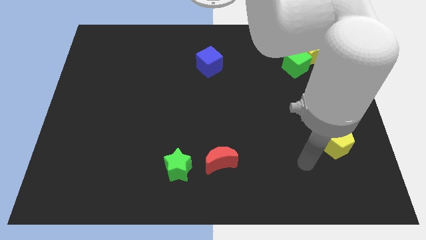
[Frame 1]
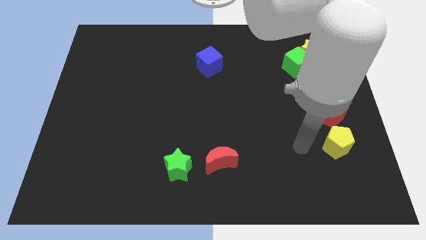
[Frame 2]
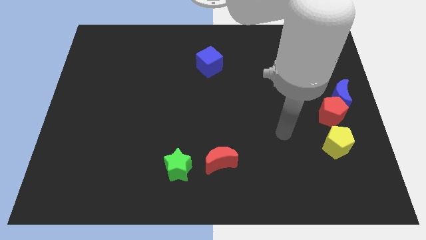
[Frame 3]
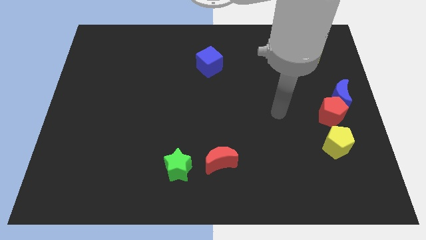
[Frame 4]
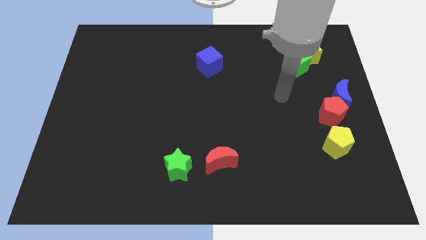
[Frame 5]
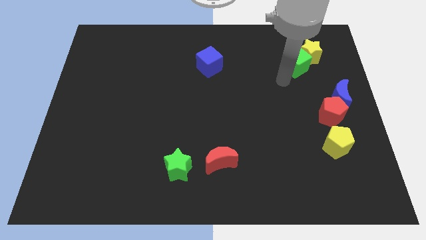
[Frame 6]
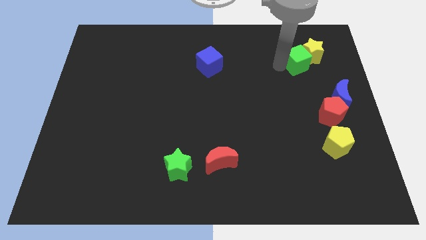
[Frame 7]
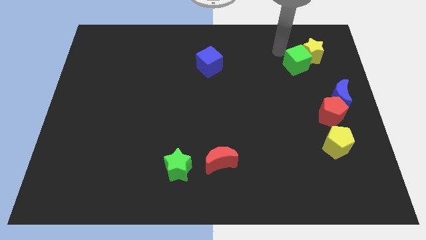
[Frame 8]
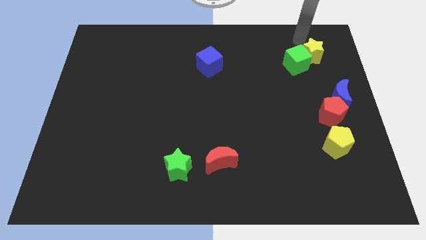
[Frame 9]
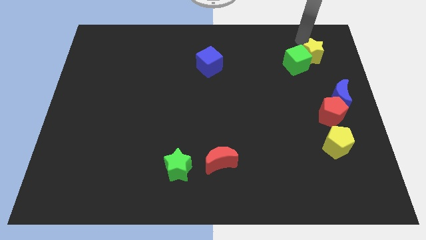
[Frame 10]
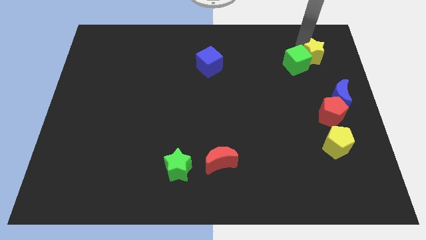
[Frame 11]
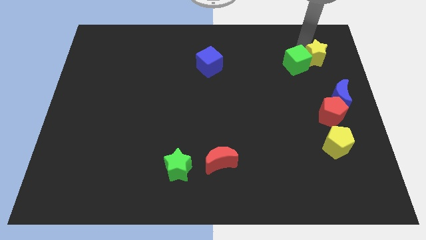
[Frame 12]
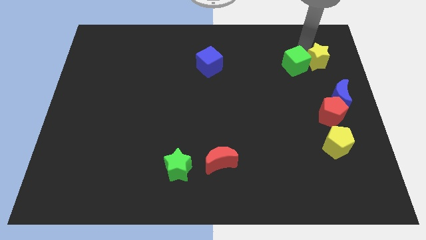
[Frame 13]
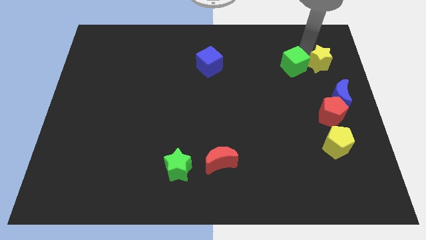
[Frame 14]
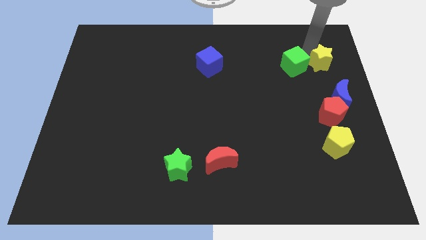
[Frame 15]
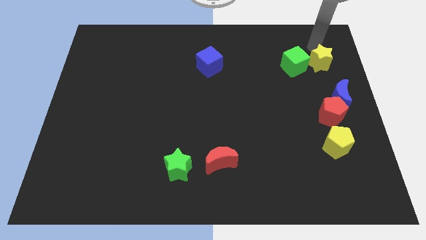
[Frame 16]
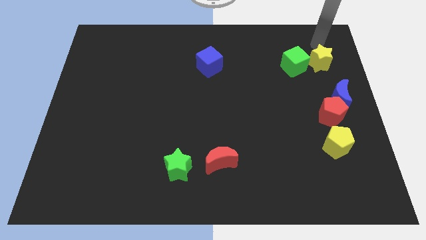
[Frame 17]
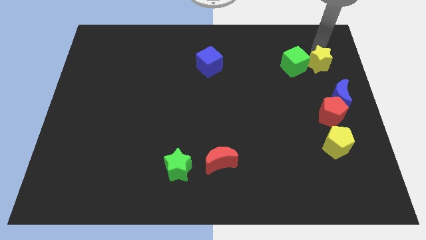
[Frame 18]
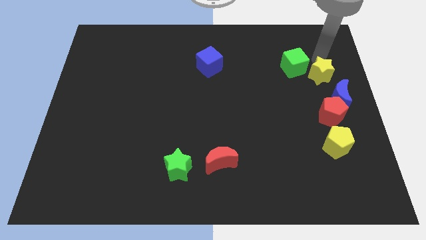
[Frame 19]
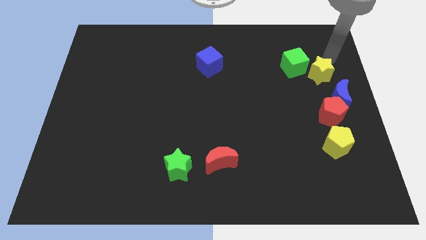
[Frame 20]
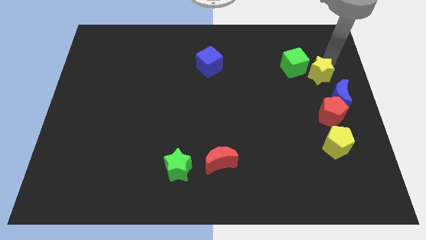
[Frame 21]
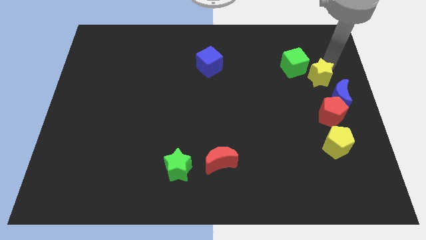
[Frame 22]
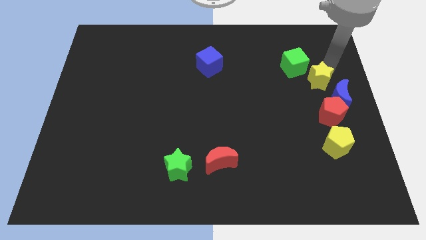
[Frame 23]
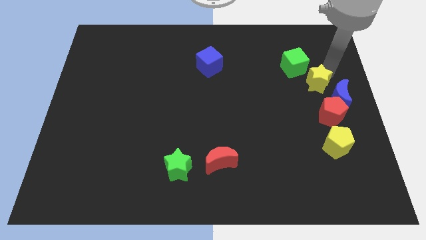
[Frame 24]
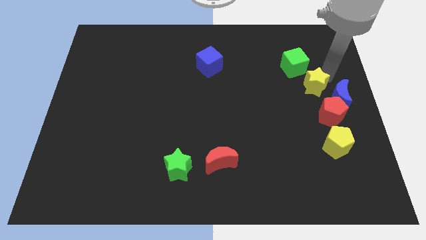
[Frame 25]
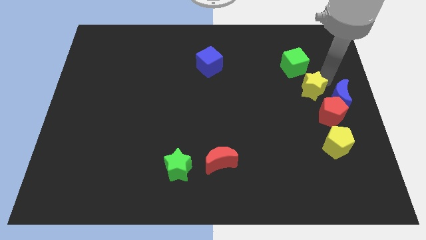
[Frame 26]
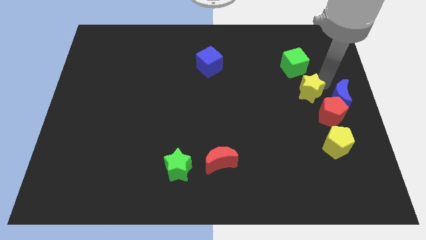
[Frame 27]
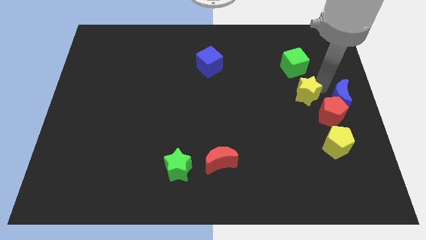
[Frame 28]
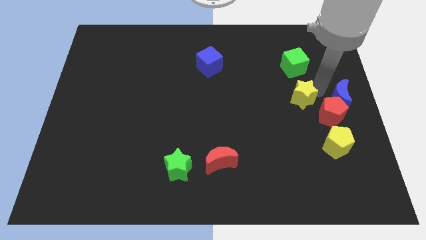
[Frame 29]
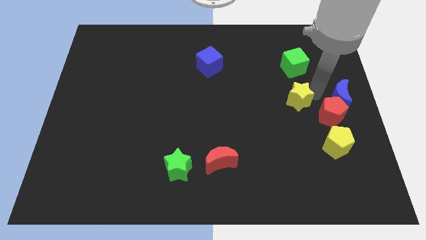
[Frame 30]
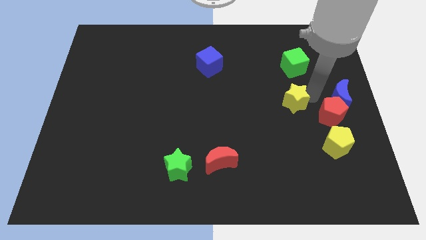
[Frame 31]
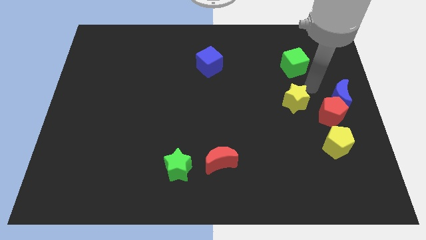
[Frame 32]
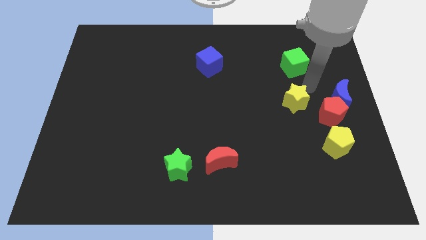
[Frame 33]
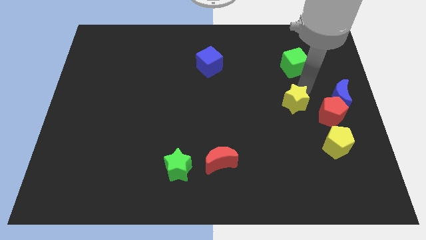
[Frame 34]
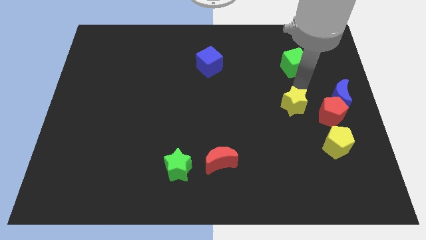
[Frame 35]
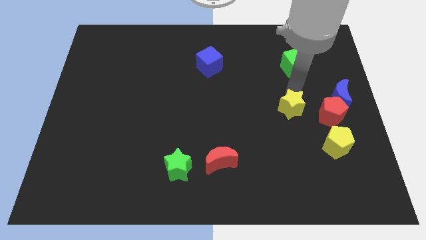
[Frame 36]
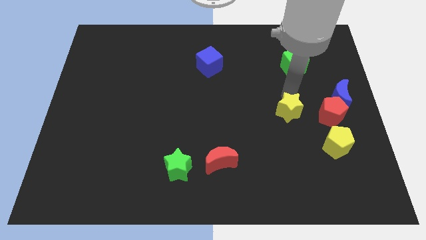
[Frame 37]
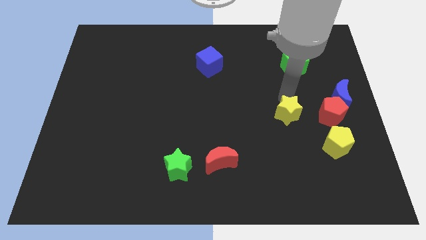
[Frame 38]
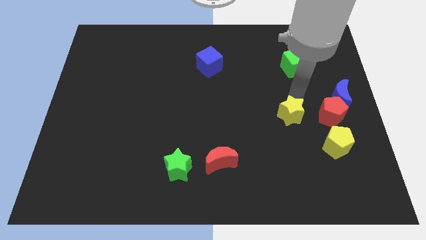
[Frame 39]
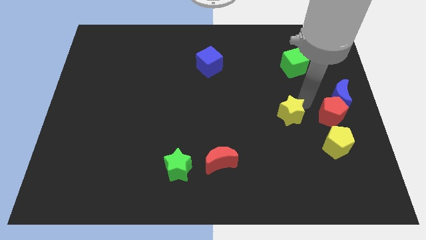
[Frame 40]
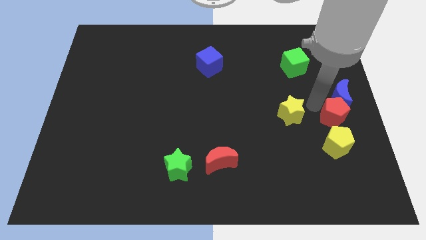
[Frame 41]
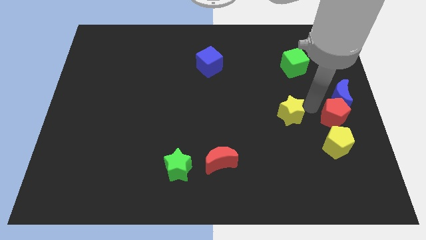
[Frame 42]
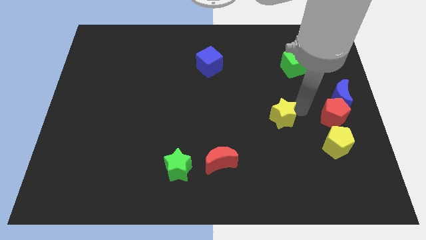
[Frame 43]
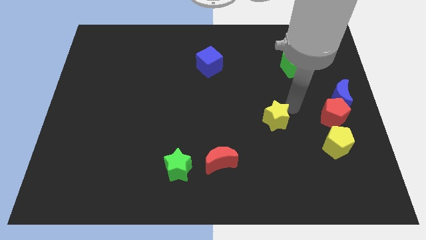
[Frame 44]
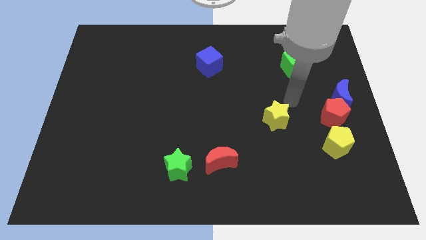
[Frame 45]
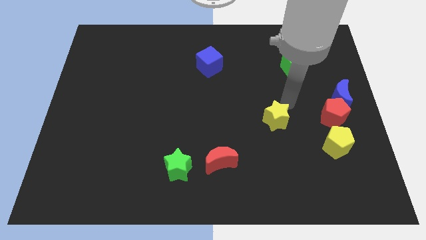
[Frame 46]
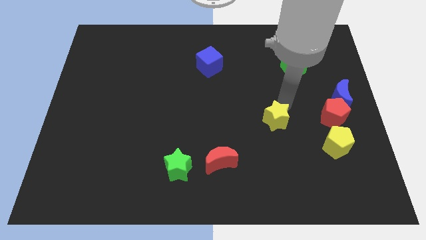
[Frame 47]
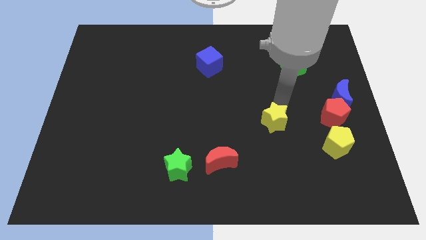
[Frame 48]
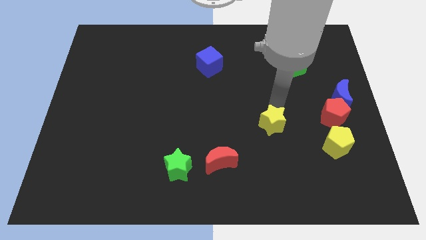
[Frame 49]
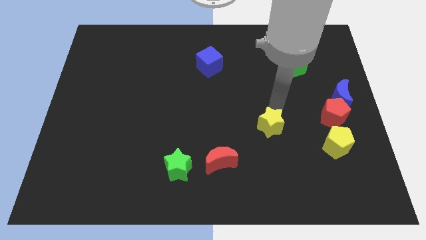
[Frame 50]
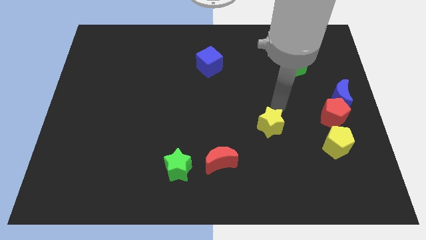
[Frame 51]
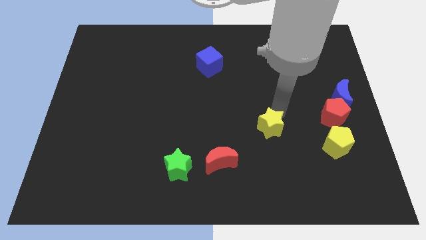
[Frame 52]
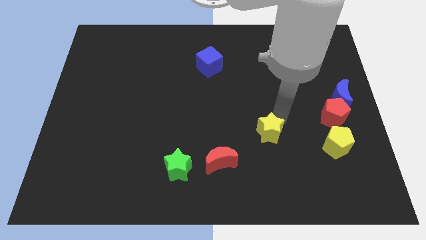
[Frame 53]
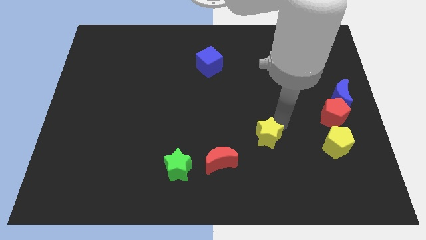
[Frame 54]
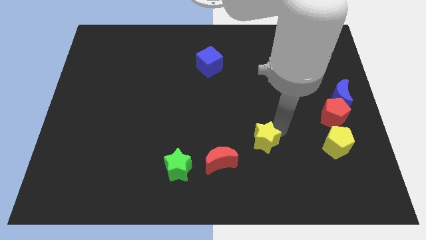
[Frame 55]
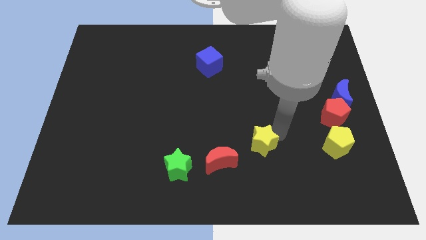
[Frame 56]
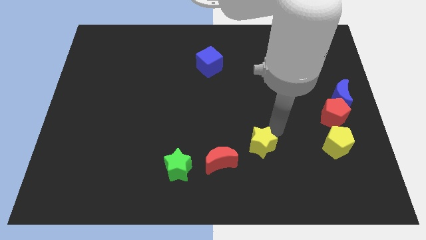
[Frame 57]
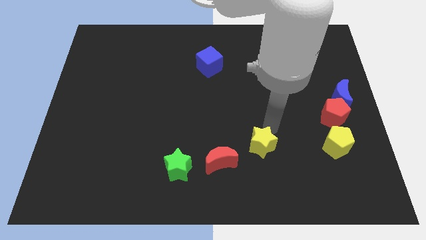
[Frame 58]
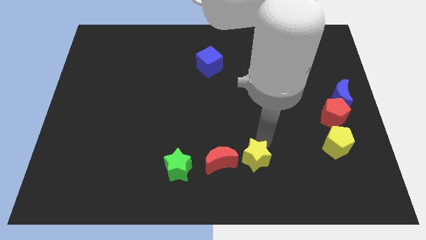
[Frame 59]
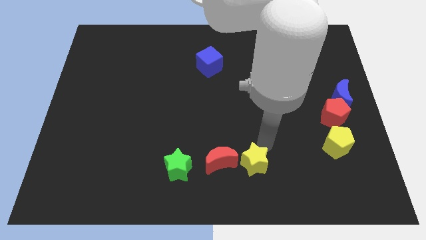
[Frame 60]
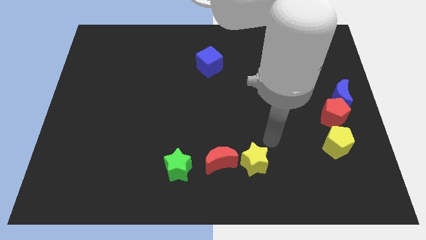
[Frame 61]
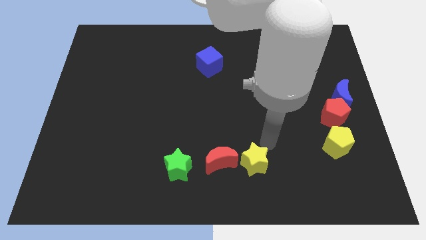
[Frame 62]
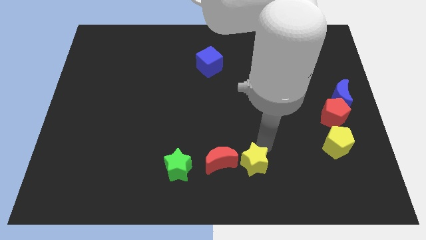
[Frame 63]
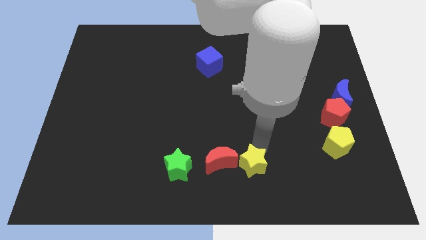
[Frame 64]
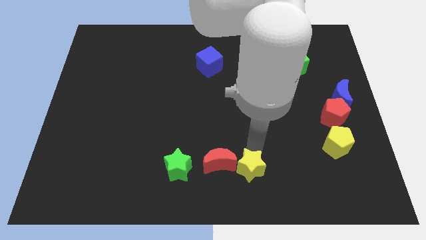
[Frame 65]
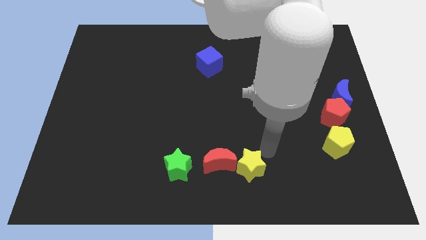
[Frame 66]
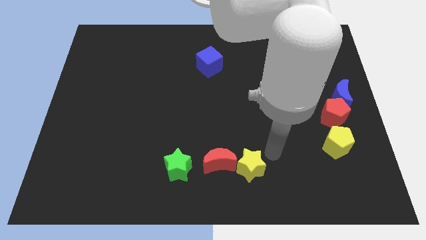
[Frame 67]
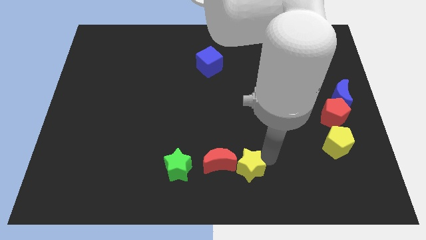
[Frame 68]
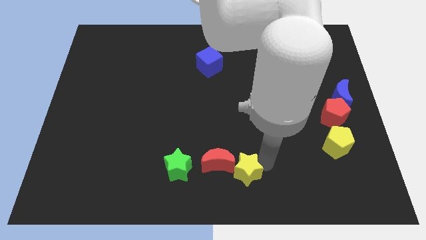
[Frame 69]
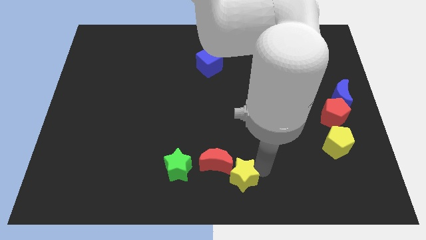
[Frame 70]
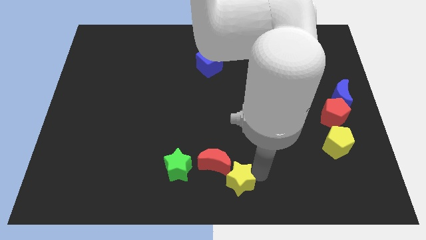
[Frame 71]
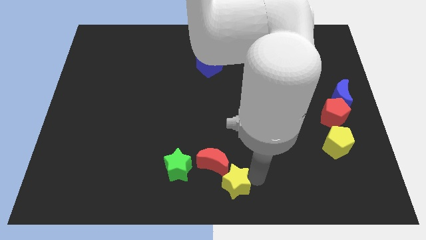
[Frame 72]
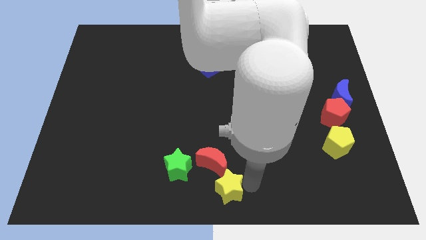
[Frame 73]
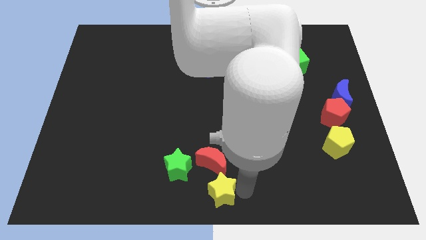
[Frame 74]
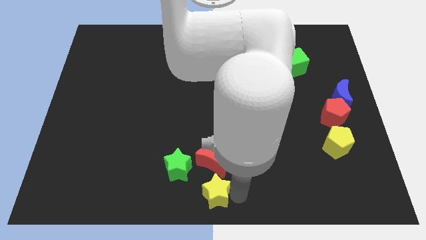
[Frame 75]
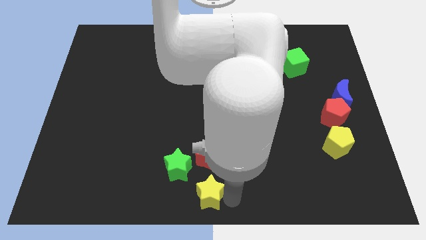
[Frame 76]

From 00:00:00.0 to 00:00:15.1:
slide the yellow star to the bottom left side of the red moon
